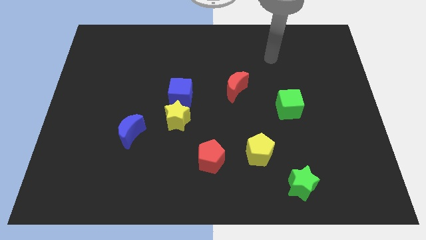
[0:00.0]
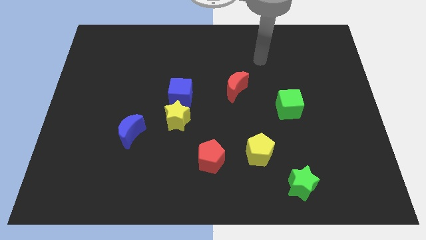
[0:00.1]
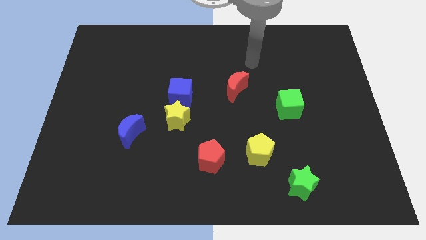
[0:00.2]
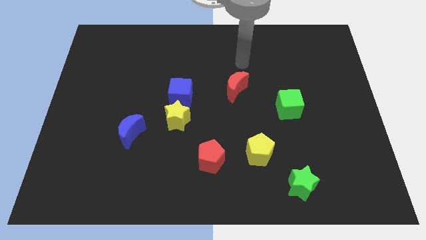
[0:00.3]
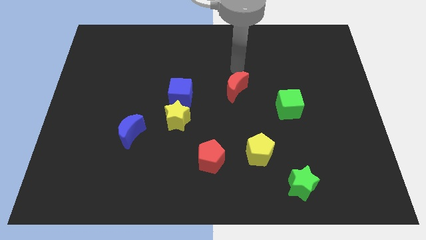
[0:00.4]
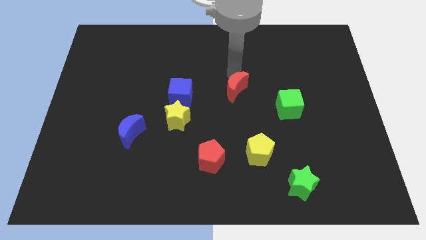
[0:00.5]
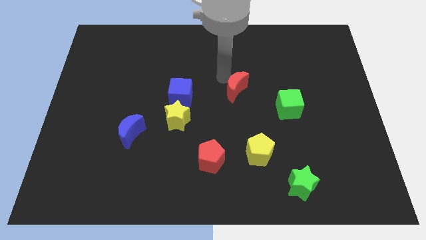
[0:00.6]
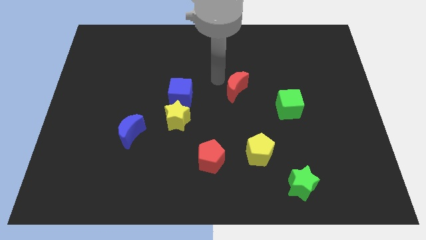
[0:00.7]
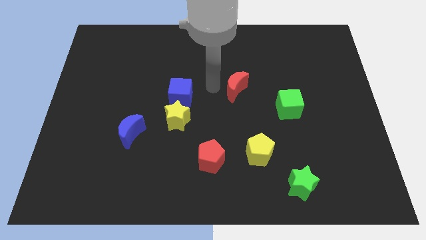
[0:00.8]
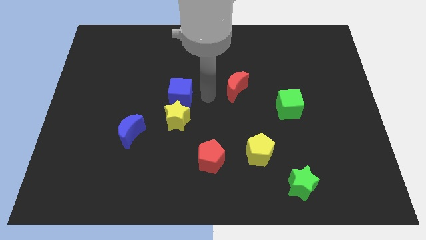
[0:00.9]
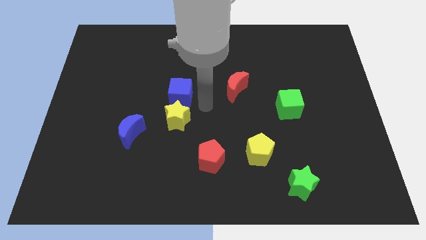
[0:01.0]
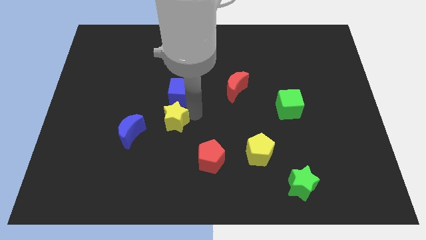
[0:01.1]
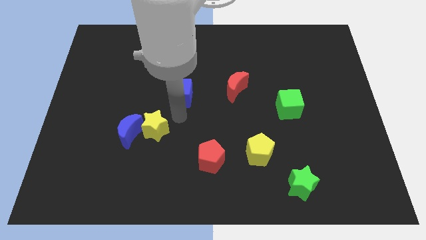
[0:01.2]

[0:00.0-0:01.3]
pull the blue cube apart from the yellow star

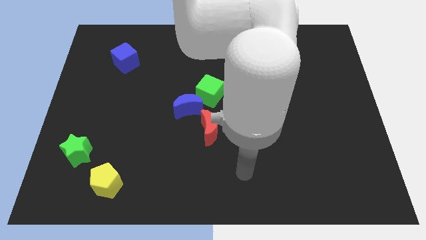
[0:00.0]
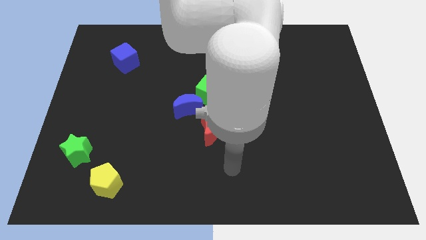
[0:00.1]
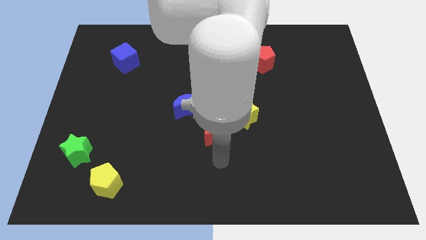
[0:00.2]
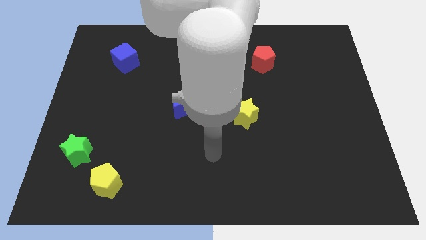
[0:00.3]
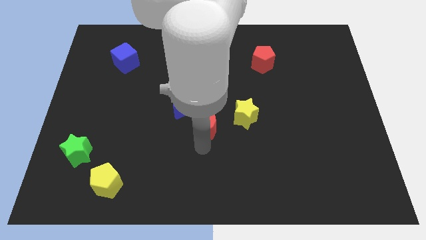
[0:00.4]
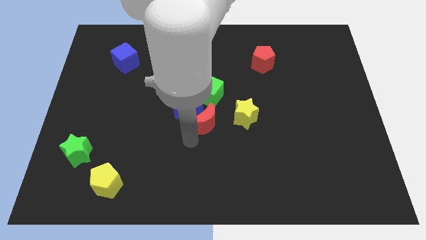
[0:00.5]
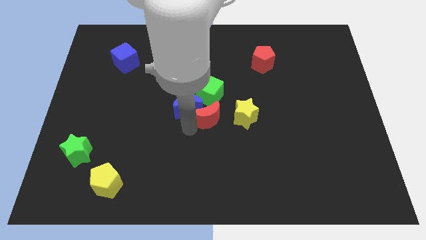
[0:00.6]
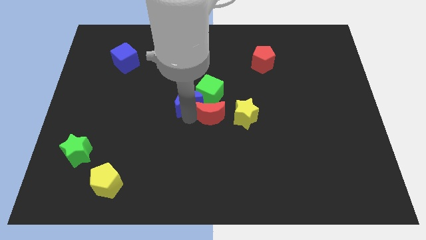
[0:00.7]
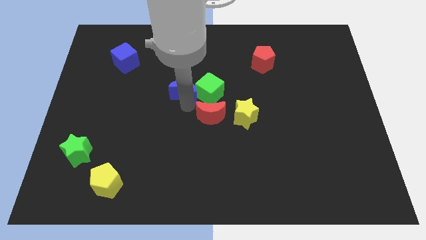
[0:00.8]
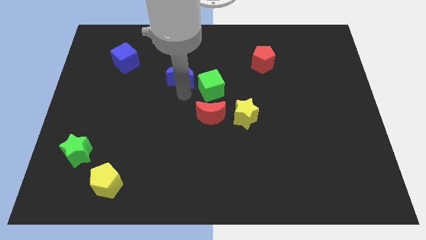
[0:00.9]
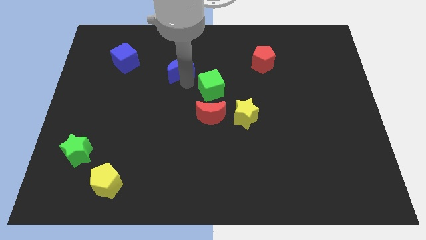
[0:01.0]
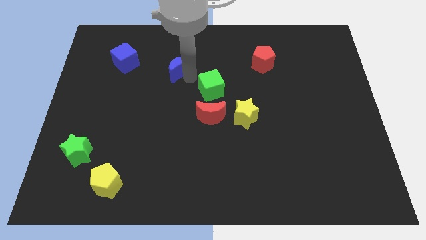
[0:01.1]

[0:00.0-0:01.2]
move the green cube away from the blue moon

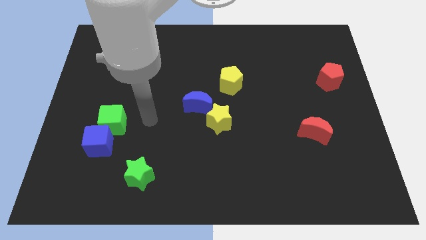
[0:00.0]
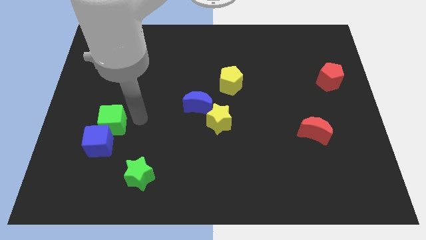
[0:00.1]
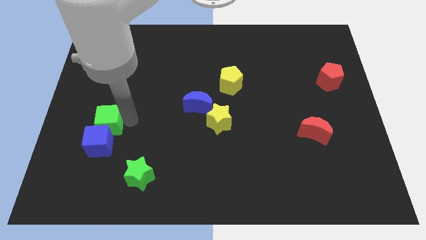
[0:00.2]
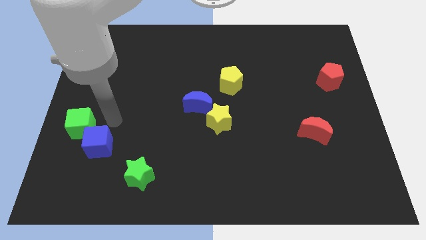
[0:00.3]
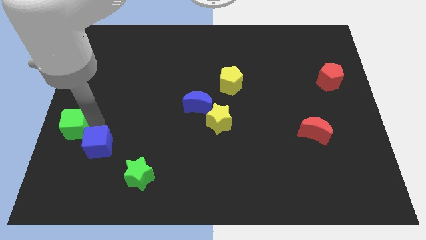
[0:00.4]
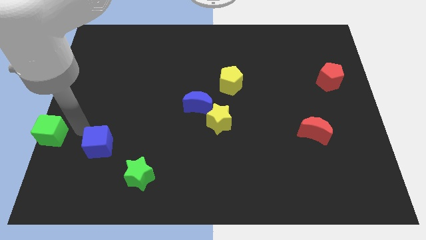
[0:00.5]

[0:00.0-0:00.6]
separate the blue cube from the green cube

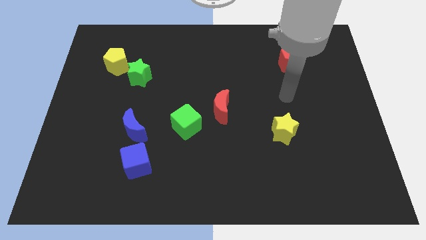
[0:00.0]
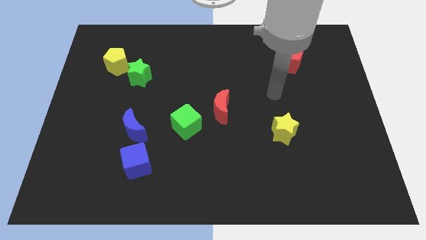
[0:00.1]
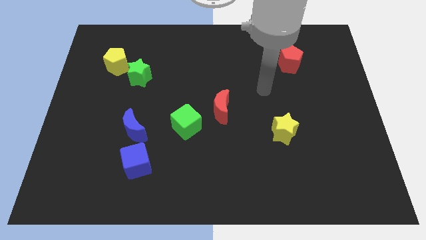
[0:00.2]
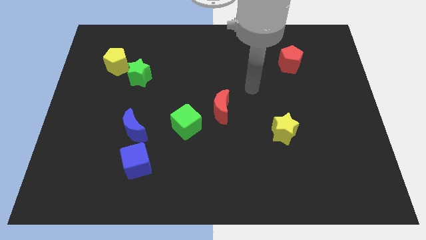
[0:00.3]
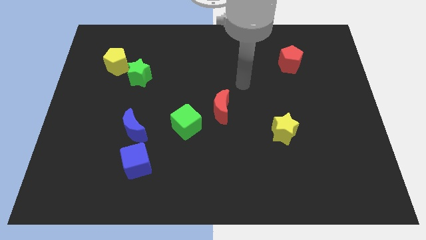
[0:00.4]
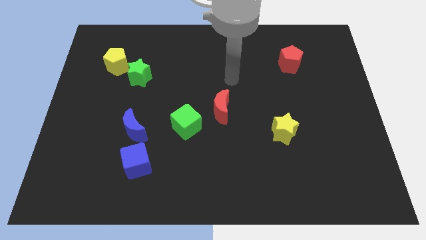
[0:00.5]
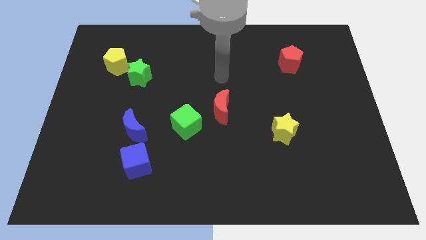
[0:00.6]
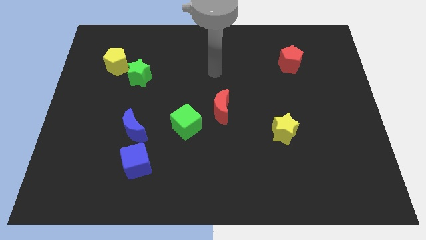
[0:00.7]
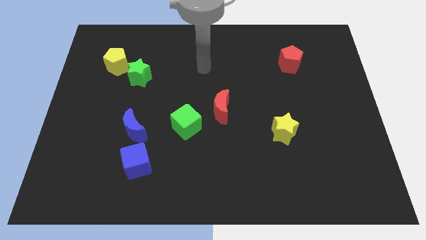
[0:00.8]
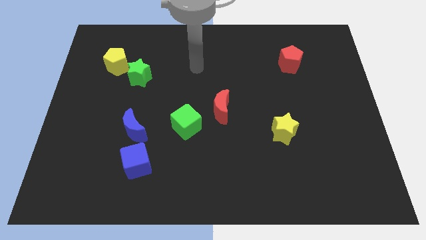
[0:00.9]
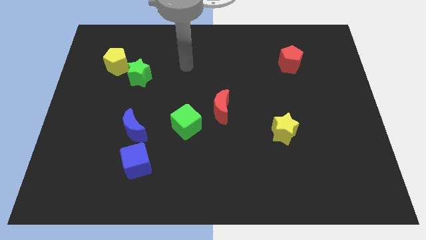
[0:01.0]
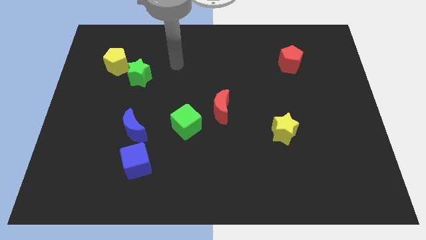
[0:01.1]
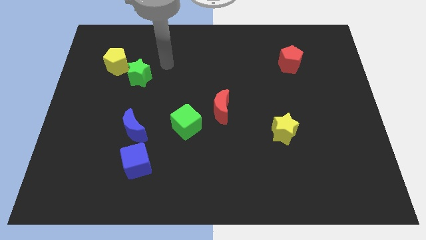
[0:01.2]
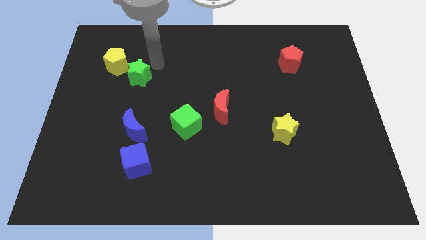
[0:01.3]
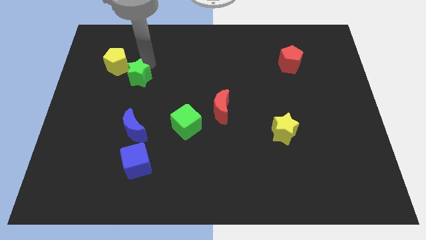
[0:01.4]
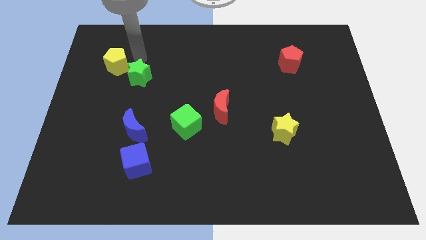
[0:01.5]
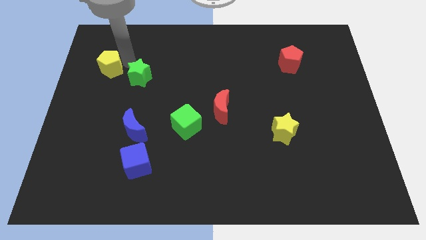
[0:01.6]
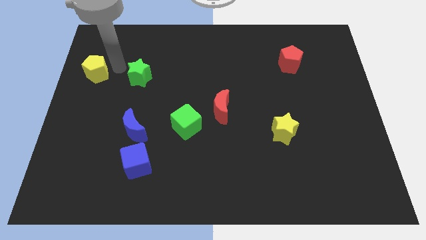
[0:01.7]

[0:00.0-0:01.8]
pull the green star apart from the yellow pentagon

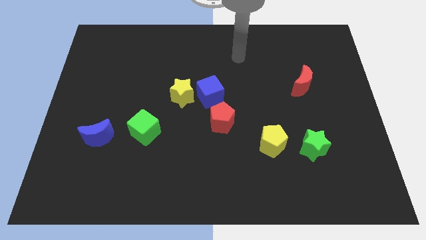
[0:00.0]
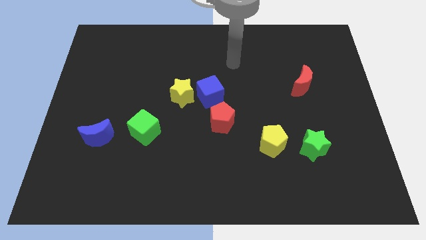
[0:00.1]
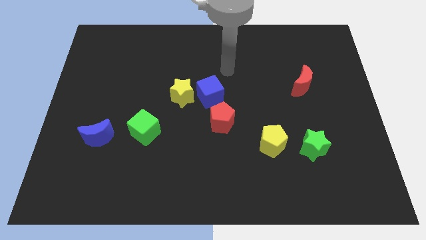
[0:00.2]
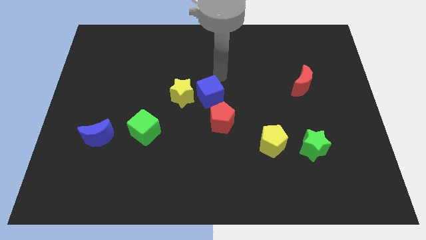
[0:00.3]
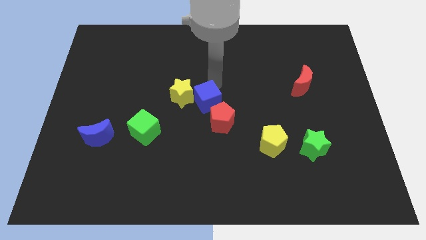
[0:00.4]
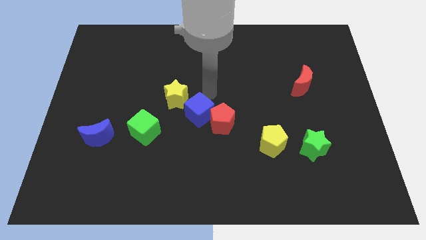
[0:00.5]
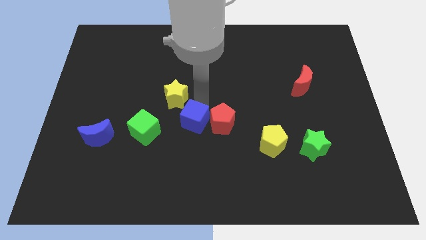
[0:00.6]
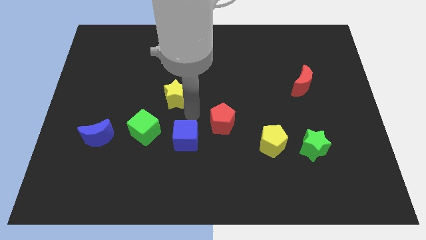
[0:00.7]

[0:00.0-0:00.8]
pull the yellow star apart from the blue cube

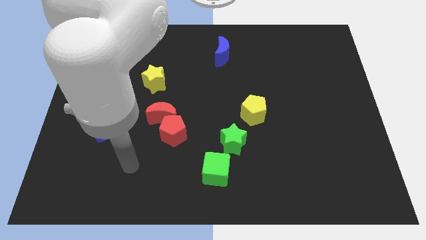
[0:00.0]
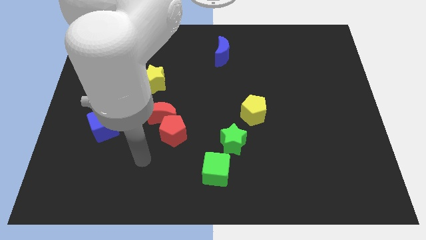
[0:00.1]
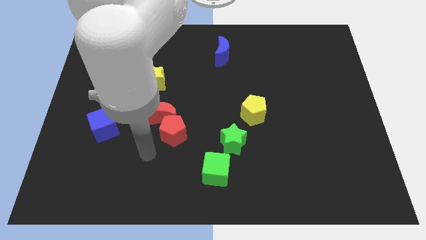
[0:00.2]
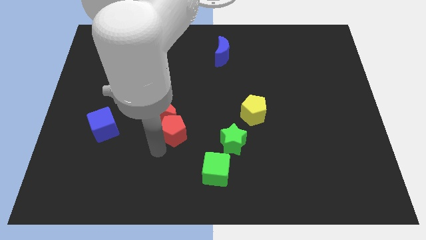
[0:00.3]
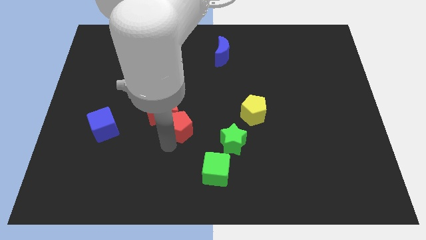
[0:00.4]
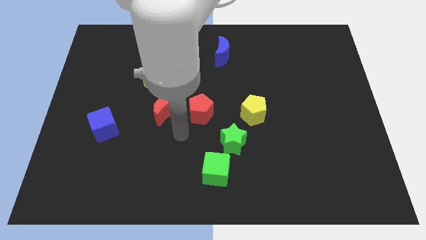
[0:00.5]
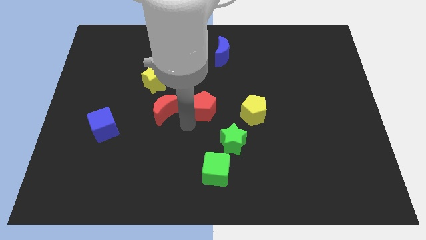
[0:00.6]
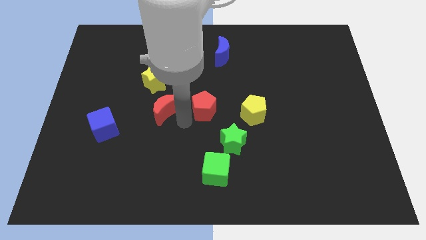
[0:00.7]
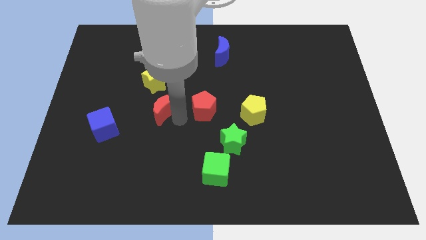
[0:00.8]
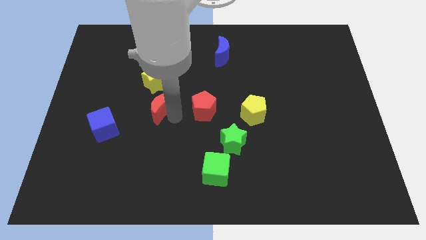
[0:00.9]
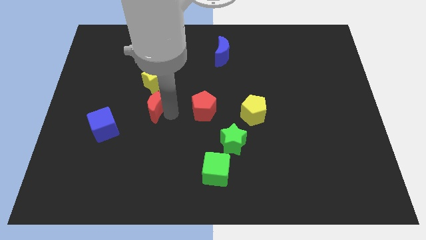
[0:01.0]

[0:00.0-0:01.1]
move the red moon away from the red pentagon

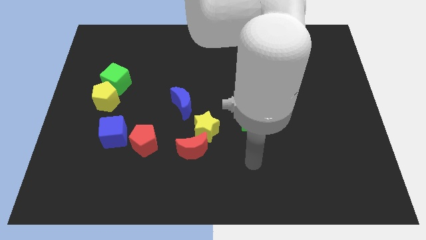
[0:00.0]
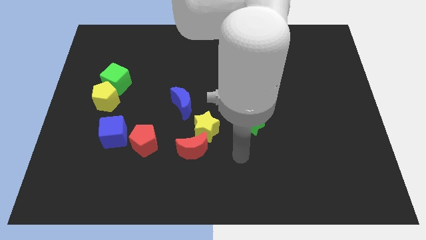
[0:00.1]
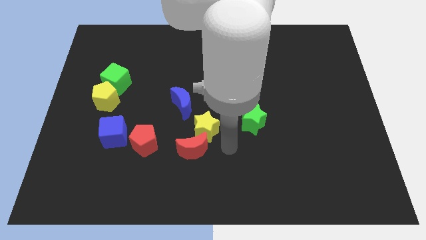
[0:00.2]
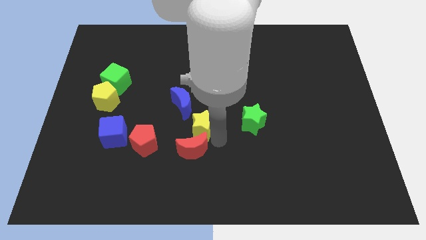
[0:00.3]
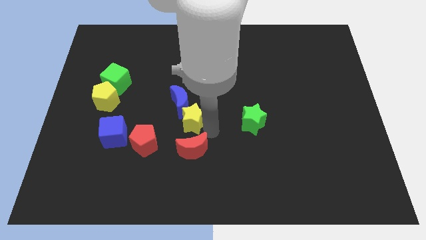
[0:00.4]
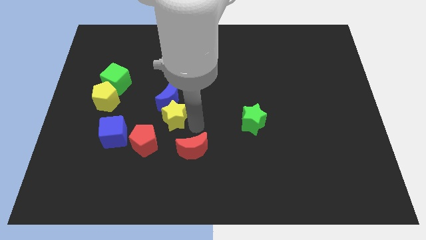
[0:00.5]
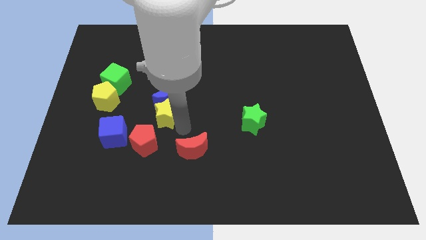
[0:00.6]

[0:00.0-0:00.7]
move the red moon away from the yellow star

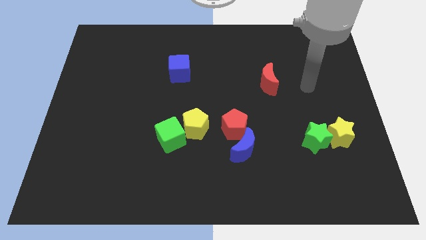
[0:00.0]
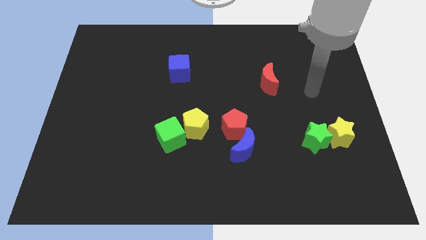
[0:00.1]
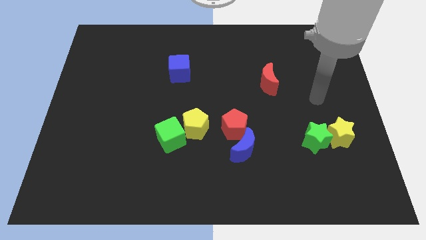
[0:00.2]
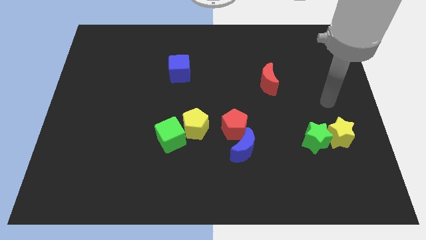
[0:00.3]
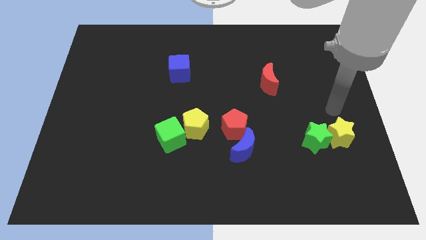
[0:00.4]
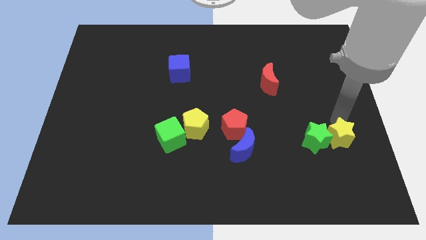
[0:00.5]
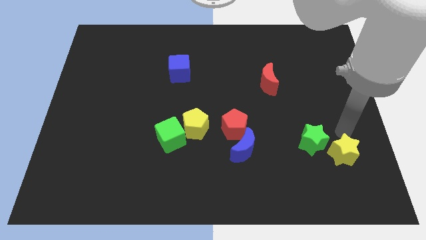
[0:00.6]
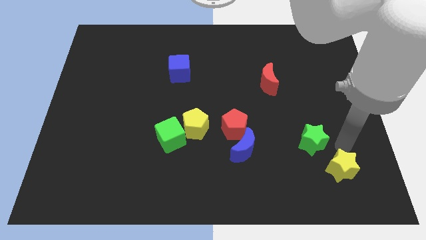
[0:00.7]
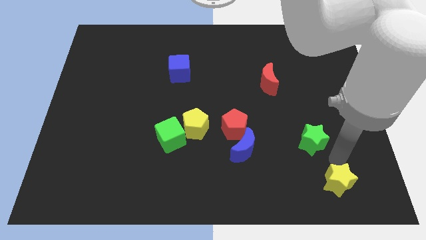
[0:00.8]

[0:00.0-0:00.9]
pull the green star apart from the yellow star

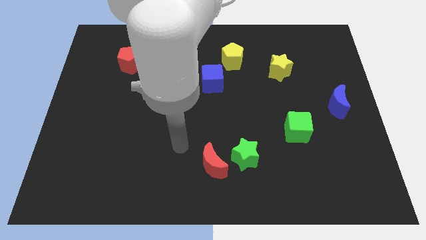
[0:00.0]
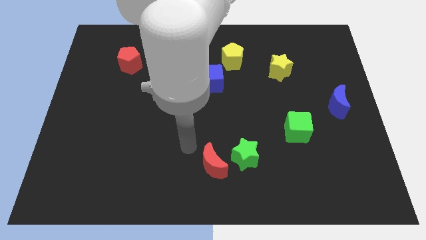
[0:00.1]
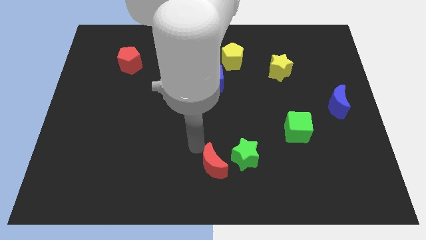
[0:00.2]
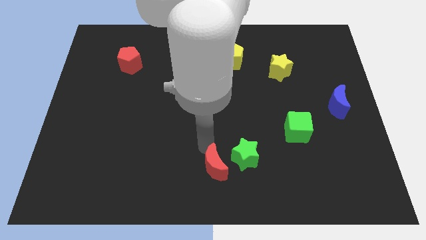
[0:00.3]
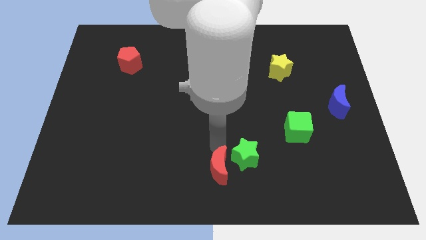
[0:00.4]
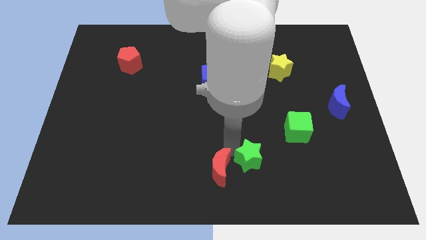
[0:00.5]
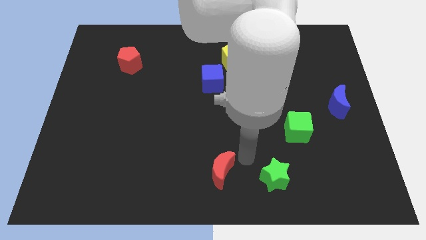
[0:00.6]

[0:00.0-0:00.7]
move the red moon away from the green star
